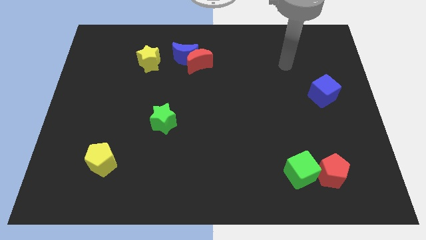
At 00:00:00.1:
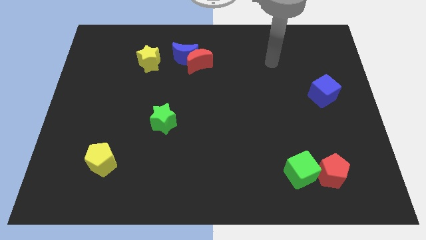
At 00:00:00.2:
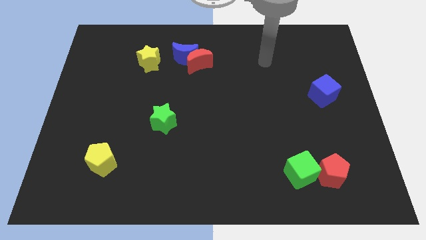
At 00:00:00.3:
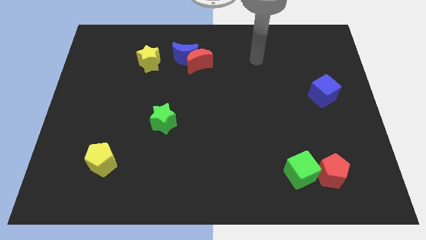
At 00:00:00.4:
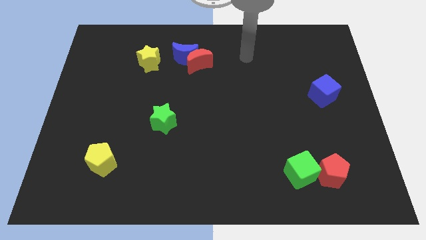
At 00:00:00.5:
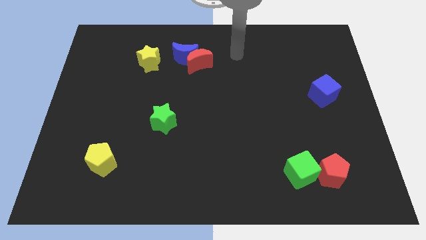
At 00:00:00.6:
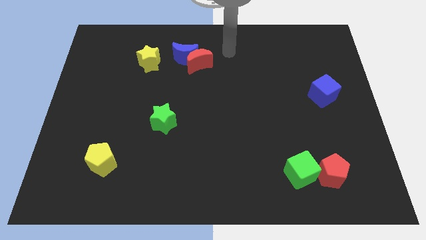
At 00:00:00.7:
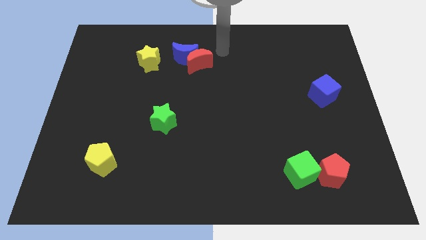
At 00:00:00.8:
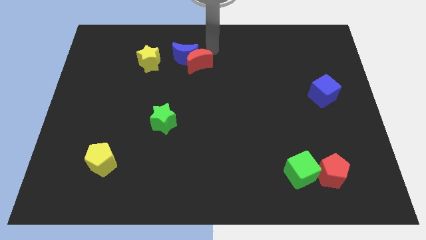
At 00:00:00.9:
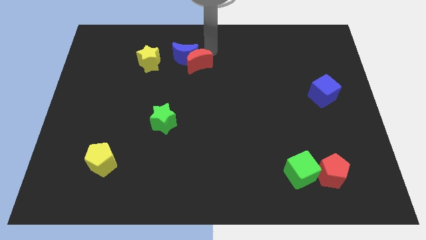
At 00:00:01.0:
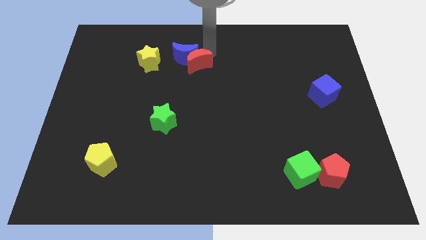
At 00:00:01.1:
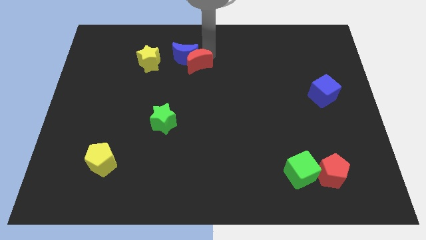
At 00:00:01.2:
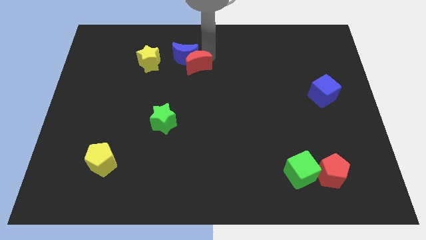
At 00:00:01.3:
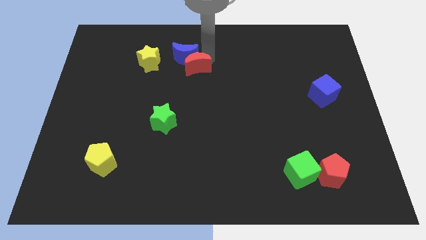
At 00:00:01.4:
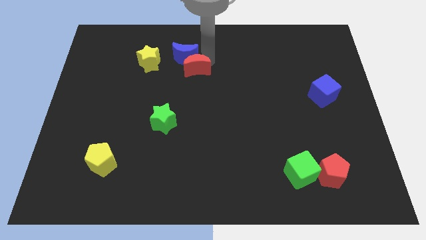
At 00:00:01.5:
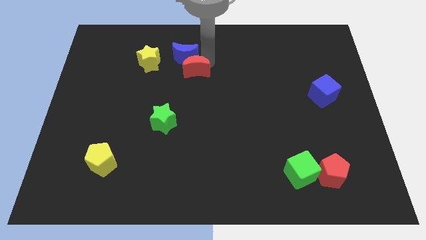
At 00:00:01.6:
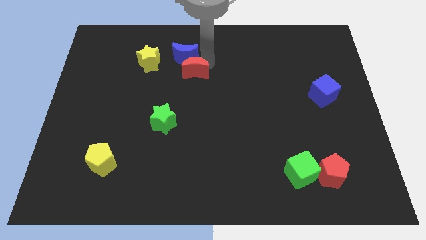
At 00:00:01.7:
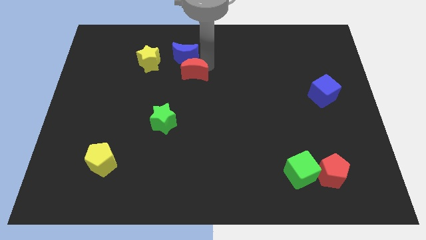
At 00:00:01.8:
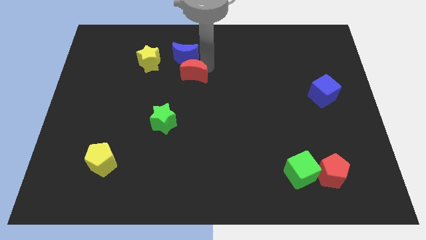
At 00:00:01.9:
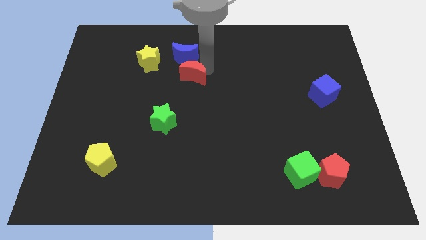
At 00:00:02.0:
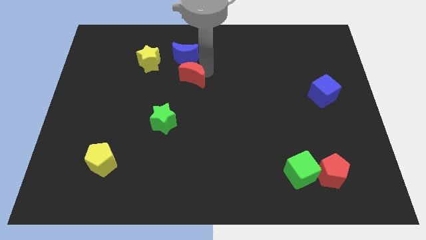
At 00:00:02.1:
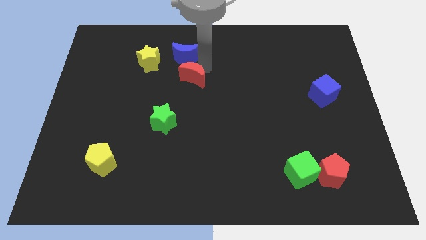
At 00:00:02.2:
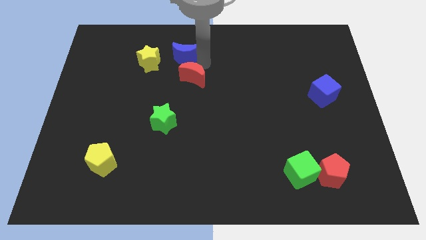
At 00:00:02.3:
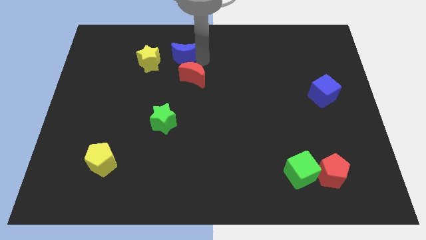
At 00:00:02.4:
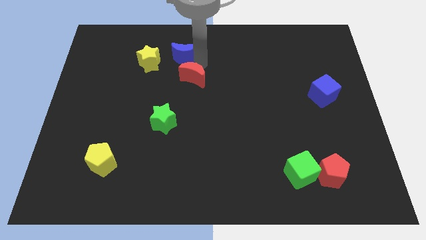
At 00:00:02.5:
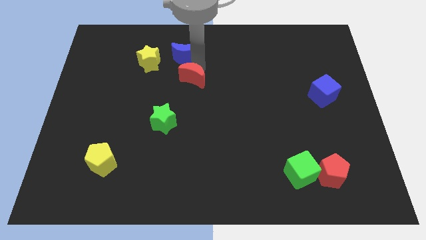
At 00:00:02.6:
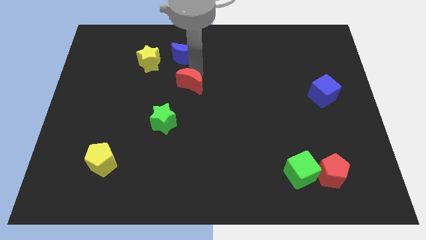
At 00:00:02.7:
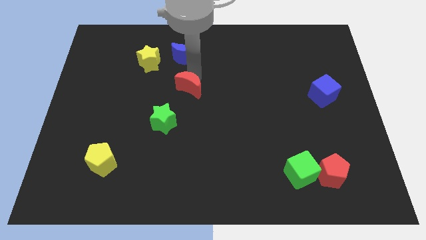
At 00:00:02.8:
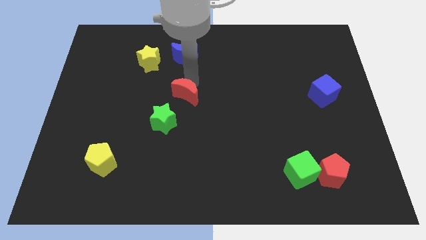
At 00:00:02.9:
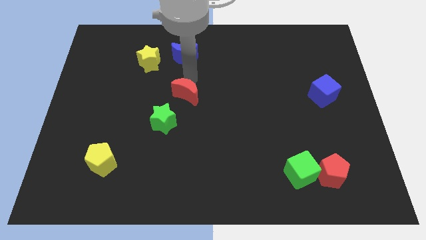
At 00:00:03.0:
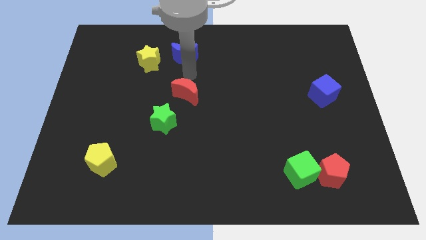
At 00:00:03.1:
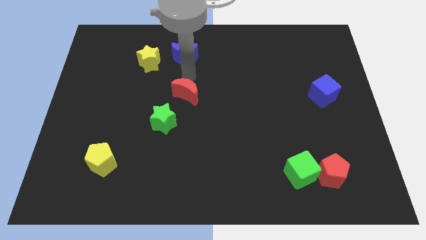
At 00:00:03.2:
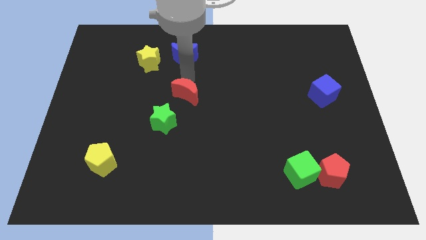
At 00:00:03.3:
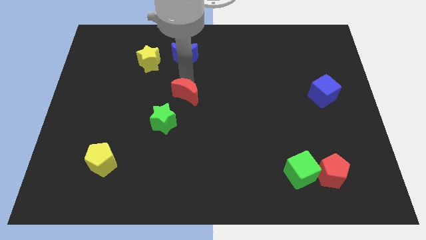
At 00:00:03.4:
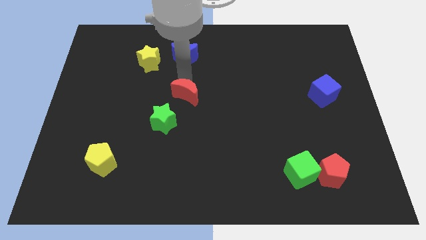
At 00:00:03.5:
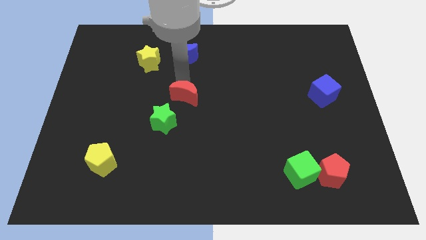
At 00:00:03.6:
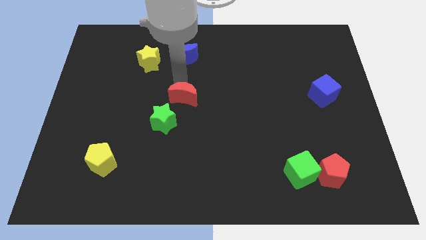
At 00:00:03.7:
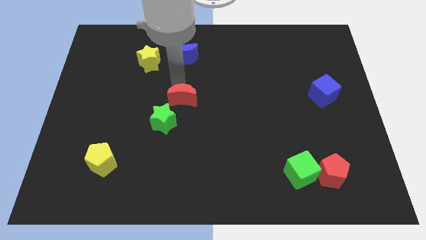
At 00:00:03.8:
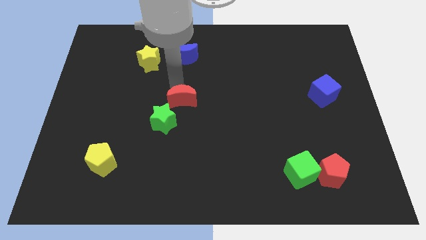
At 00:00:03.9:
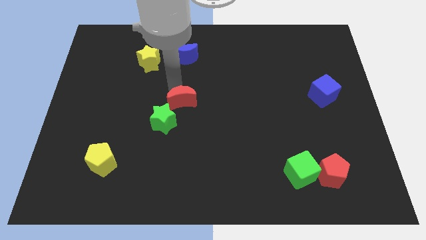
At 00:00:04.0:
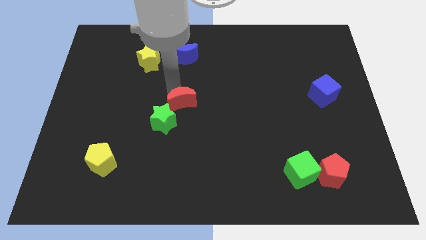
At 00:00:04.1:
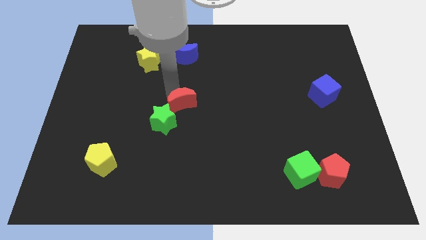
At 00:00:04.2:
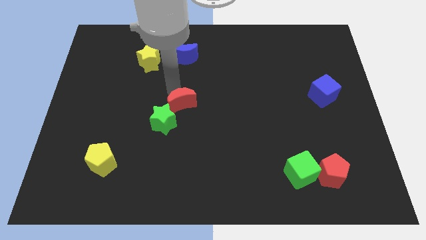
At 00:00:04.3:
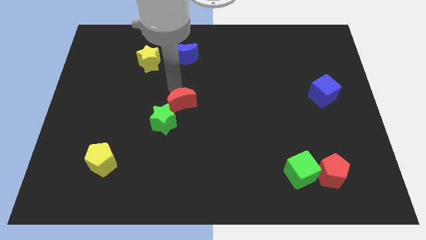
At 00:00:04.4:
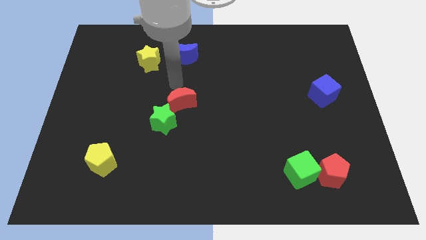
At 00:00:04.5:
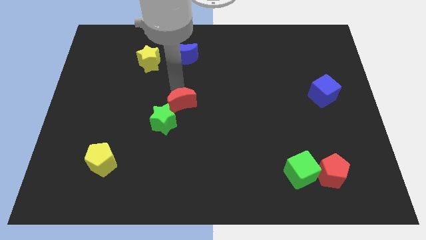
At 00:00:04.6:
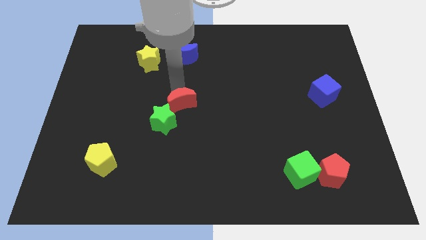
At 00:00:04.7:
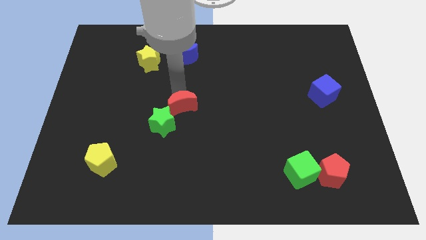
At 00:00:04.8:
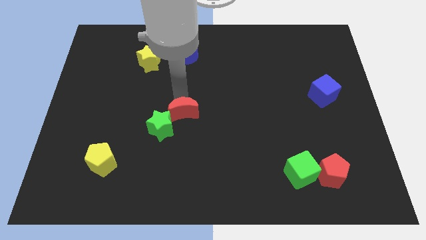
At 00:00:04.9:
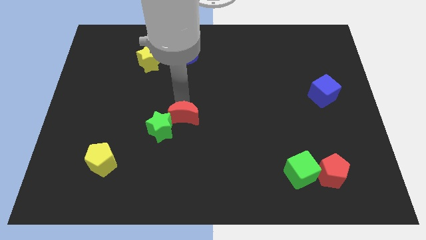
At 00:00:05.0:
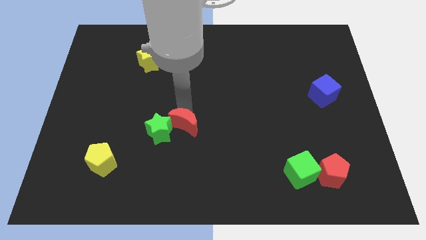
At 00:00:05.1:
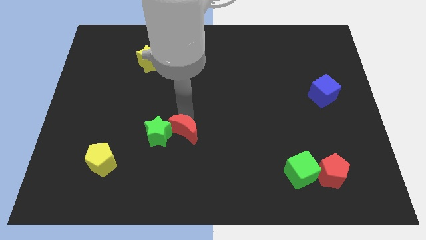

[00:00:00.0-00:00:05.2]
push the red moon to the bottom right of the green star

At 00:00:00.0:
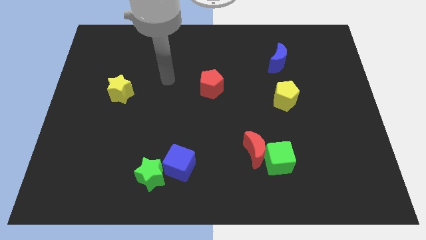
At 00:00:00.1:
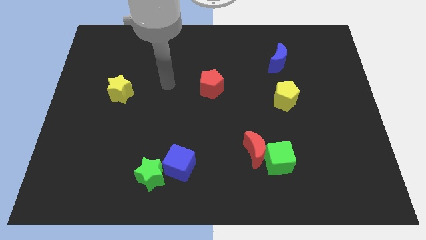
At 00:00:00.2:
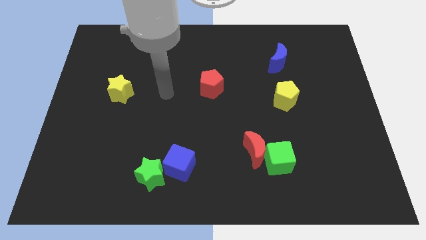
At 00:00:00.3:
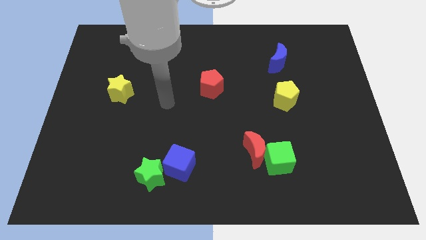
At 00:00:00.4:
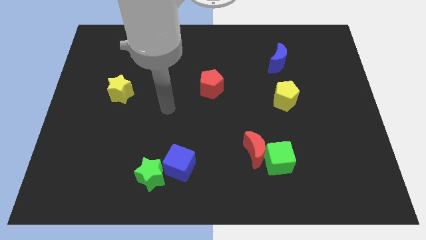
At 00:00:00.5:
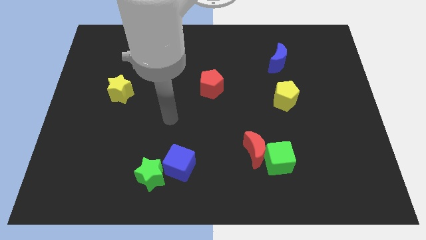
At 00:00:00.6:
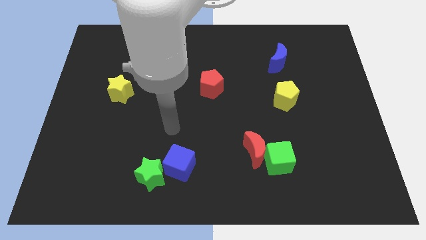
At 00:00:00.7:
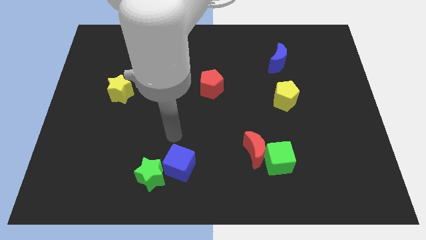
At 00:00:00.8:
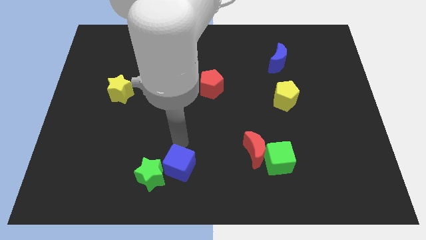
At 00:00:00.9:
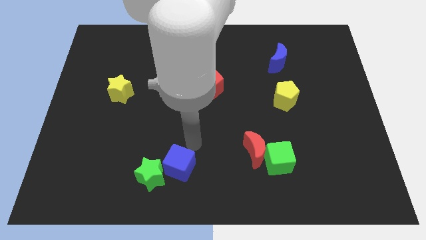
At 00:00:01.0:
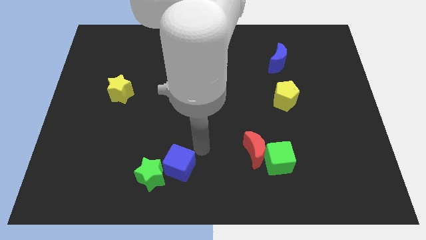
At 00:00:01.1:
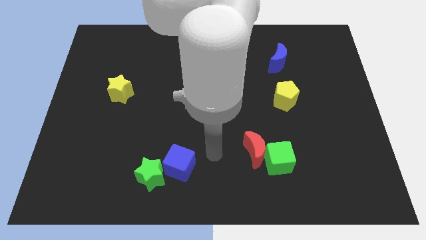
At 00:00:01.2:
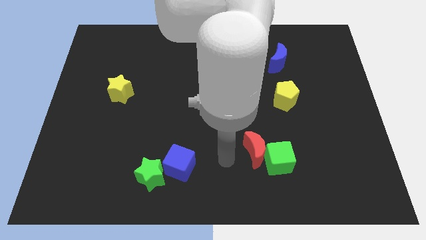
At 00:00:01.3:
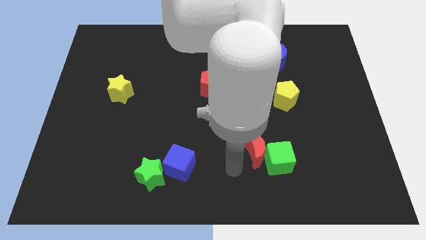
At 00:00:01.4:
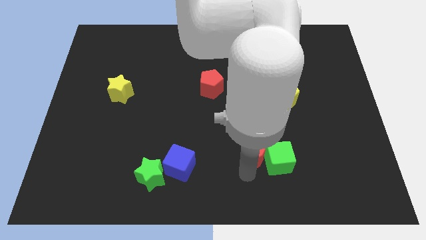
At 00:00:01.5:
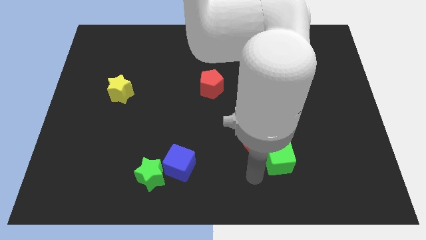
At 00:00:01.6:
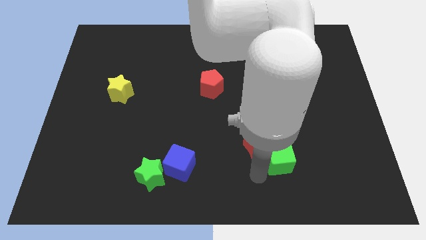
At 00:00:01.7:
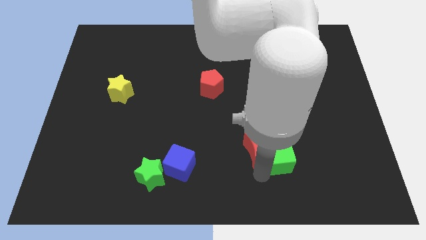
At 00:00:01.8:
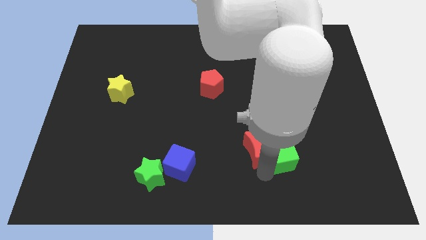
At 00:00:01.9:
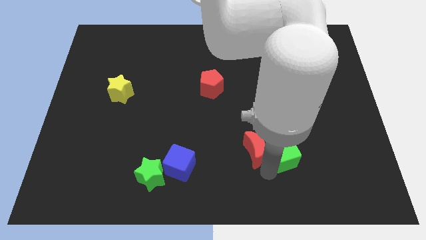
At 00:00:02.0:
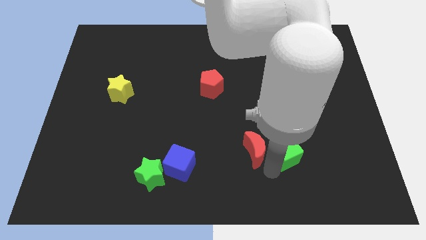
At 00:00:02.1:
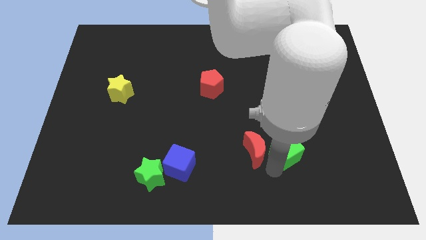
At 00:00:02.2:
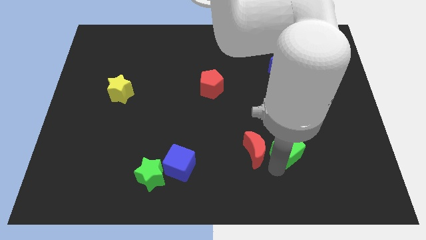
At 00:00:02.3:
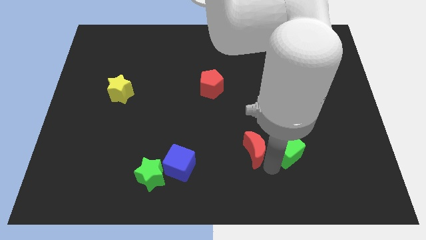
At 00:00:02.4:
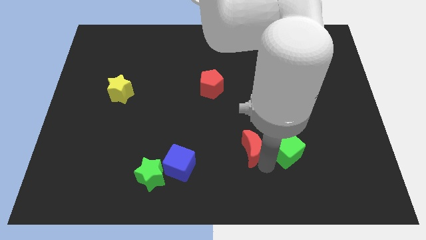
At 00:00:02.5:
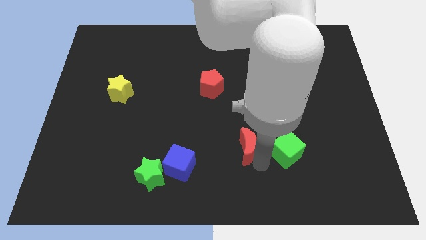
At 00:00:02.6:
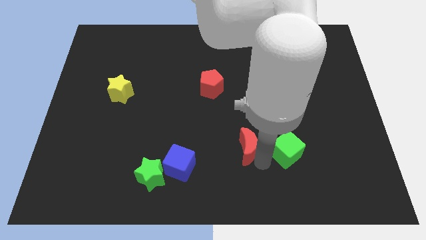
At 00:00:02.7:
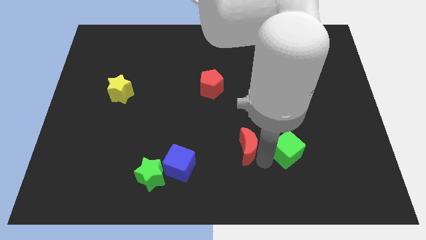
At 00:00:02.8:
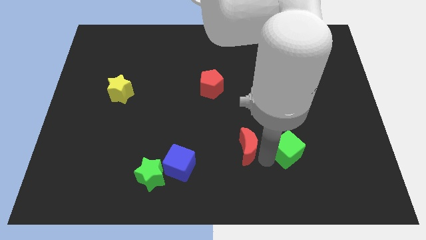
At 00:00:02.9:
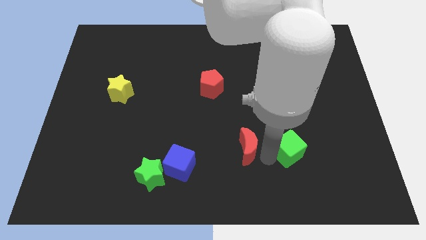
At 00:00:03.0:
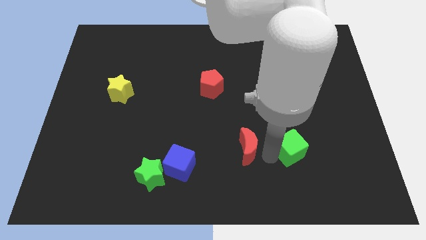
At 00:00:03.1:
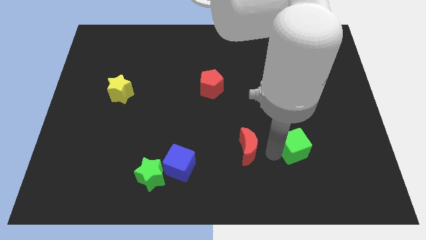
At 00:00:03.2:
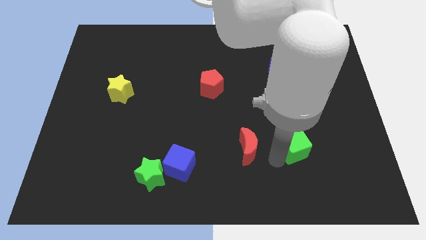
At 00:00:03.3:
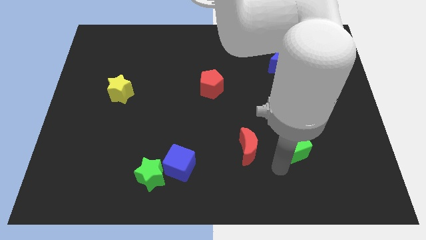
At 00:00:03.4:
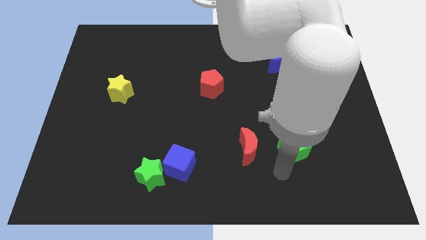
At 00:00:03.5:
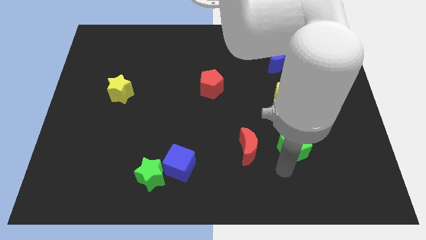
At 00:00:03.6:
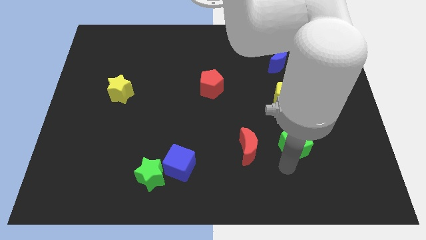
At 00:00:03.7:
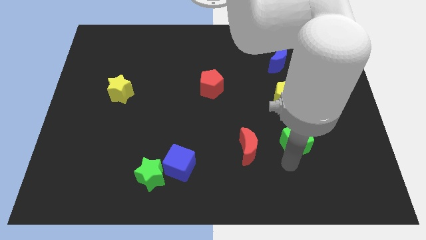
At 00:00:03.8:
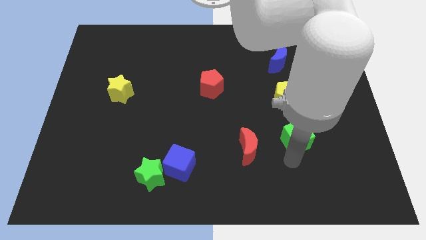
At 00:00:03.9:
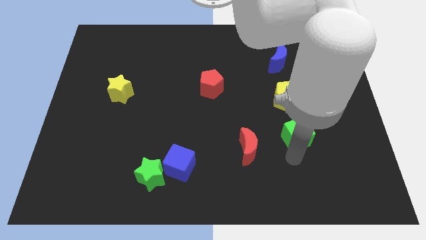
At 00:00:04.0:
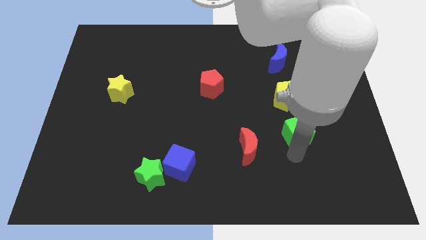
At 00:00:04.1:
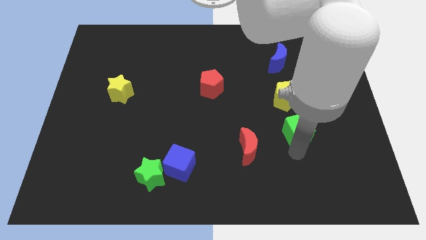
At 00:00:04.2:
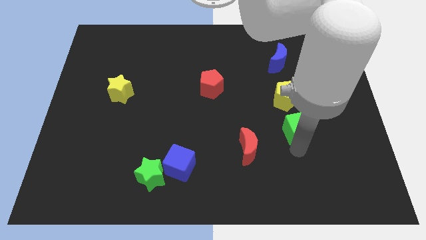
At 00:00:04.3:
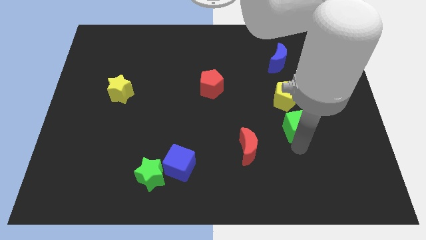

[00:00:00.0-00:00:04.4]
move the green cube diagonally down and to the right of the yellow pentagon
